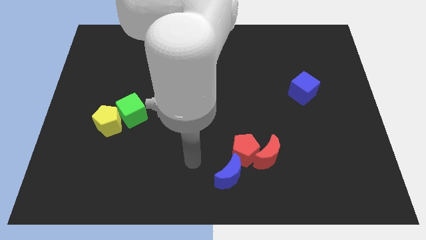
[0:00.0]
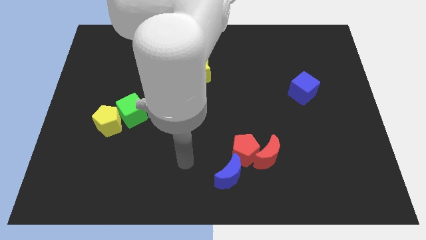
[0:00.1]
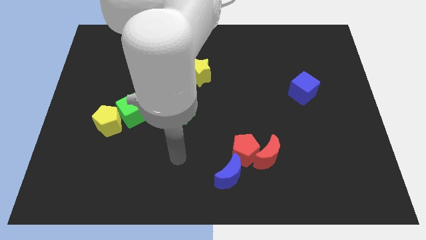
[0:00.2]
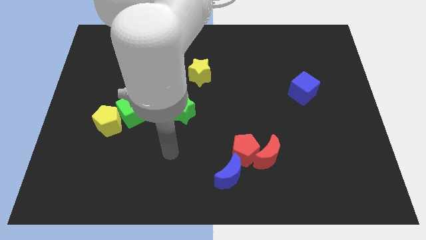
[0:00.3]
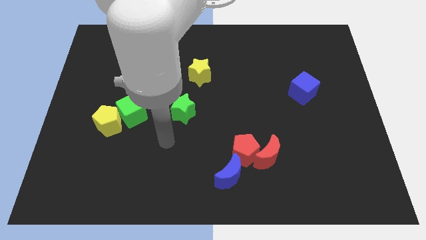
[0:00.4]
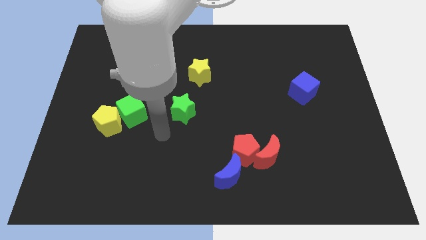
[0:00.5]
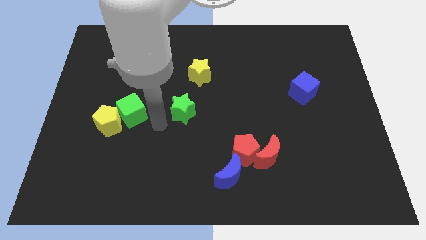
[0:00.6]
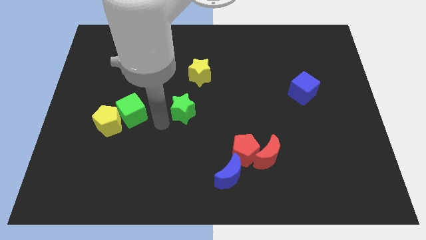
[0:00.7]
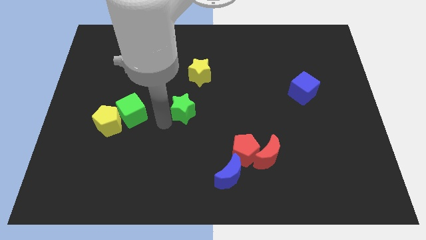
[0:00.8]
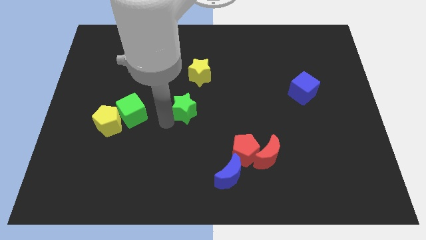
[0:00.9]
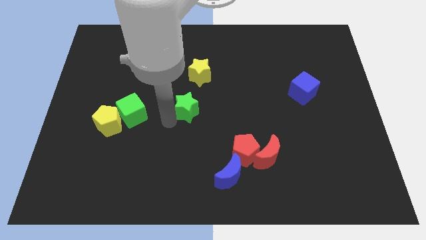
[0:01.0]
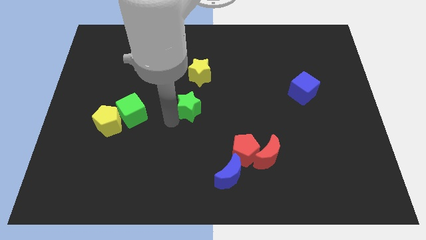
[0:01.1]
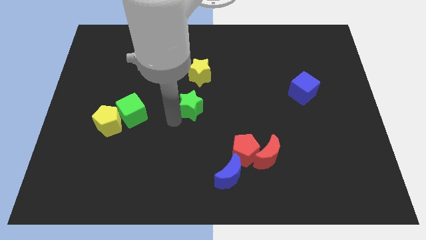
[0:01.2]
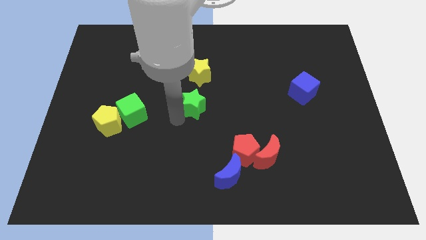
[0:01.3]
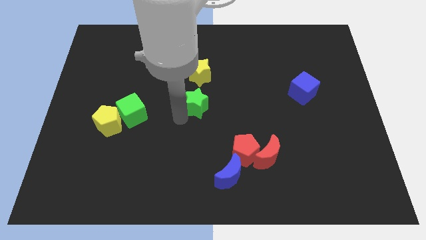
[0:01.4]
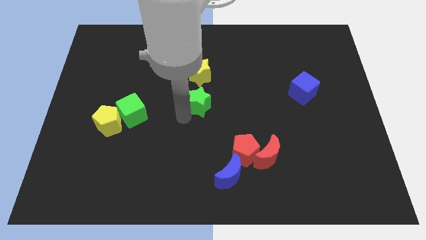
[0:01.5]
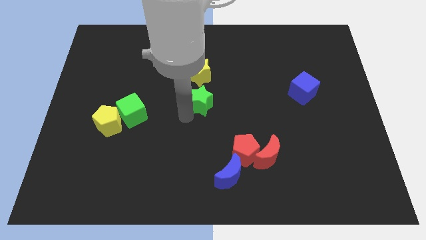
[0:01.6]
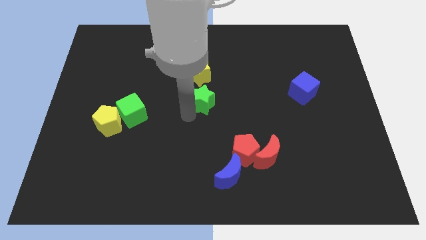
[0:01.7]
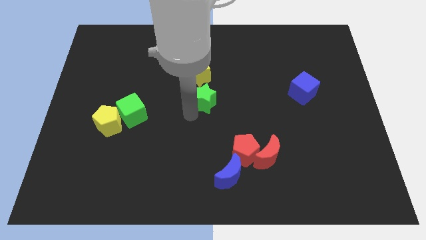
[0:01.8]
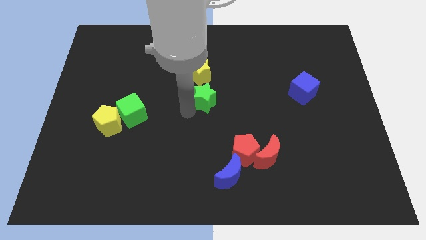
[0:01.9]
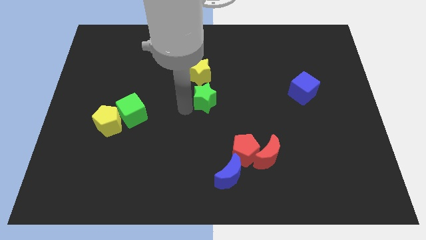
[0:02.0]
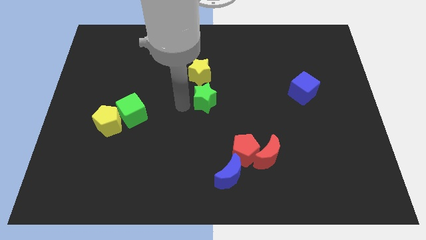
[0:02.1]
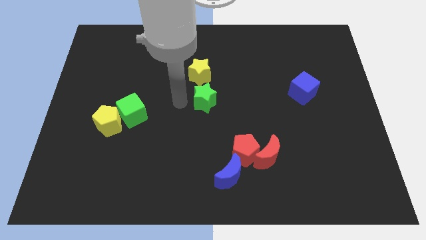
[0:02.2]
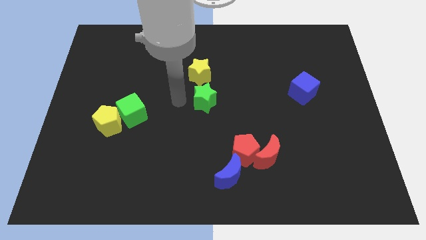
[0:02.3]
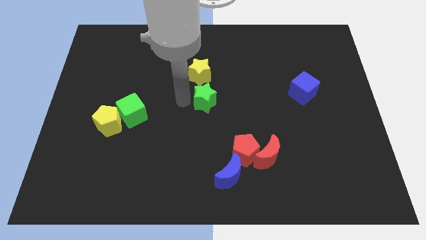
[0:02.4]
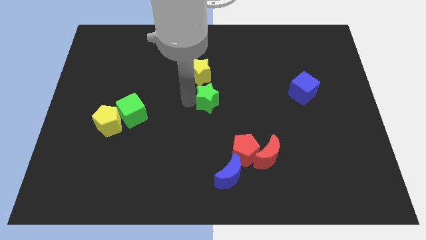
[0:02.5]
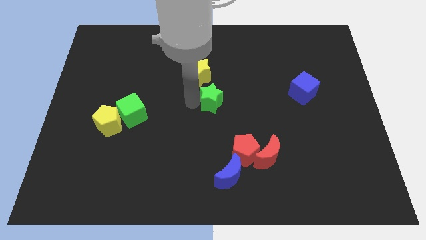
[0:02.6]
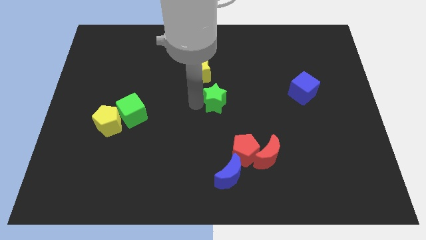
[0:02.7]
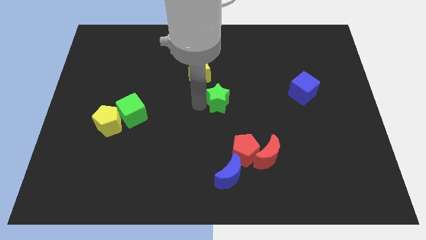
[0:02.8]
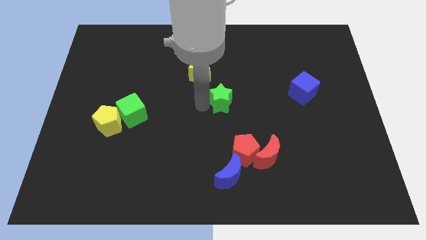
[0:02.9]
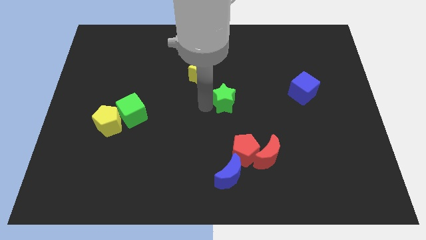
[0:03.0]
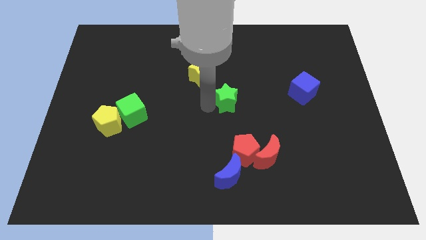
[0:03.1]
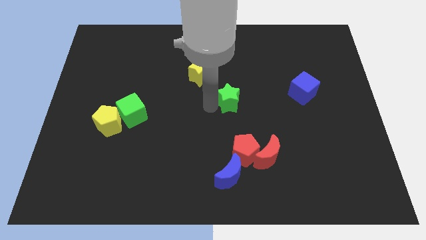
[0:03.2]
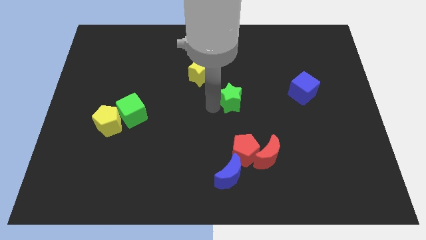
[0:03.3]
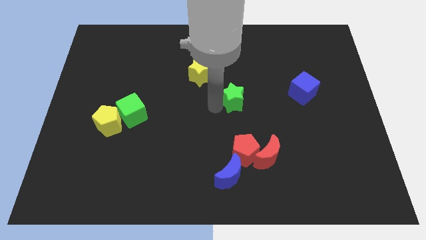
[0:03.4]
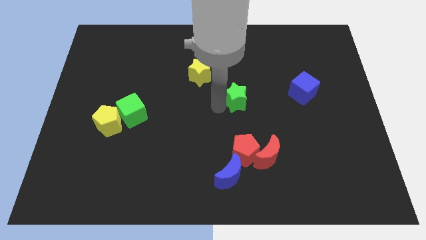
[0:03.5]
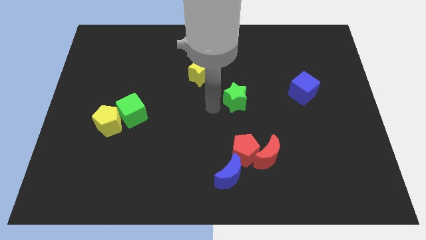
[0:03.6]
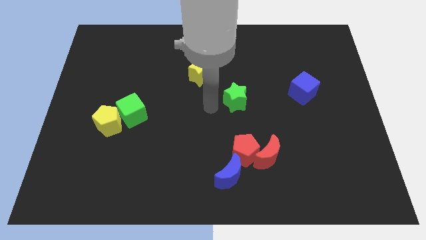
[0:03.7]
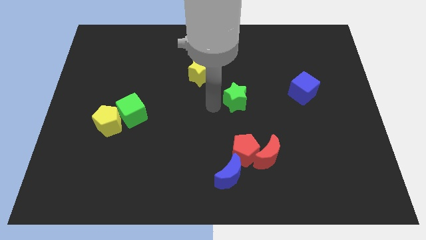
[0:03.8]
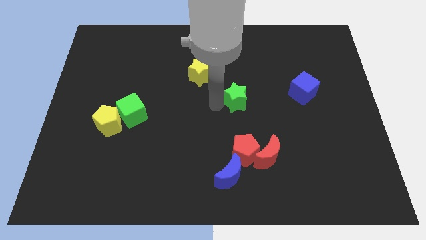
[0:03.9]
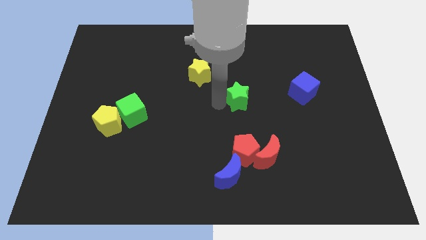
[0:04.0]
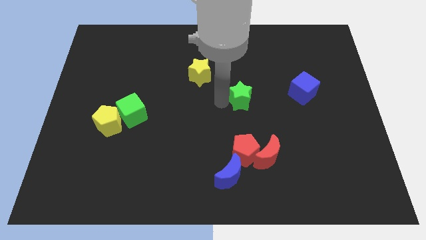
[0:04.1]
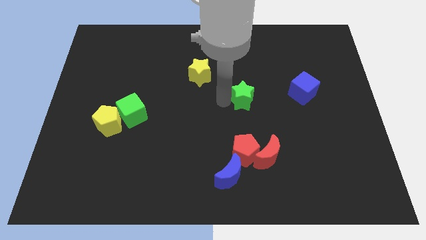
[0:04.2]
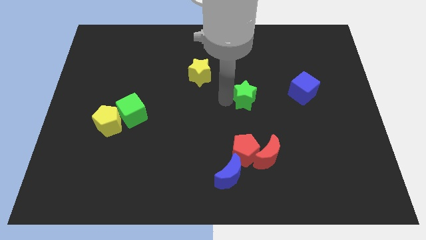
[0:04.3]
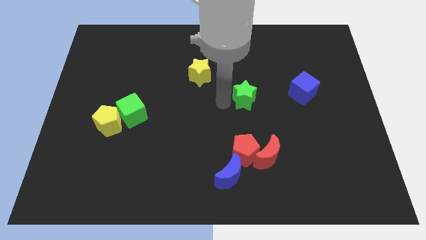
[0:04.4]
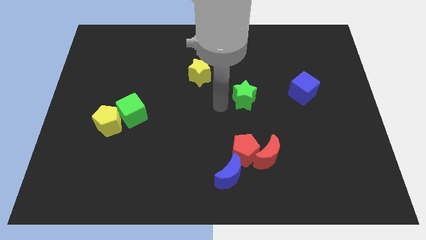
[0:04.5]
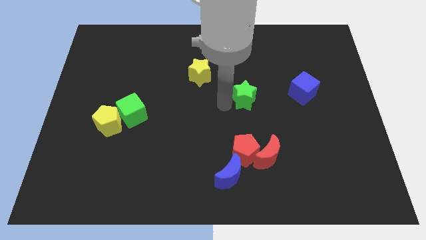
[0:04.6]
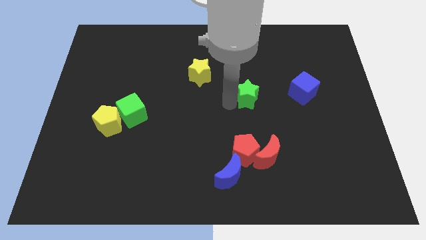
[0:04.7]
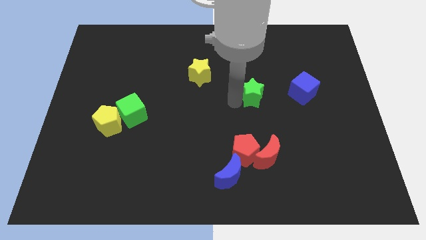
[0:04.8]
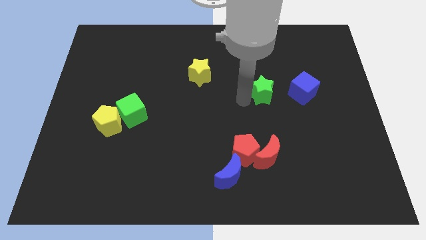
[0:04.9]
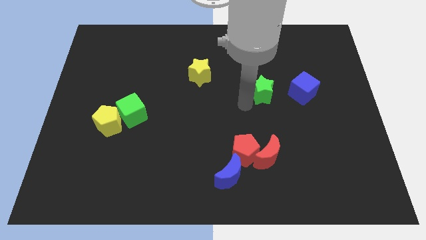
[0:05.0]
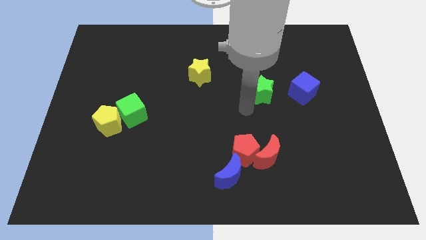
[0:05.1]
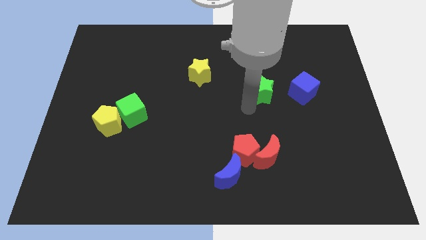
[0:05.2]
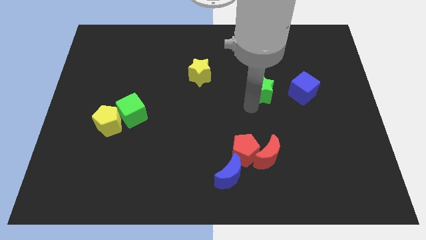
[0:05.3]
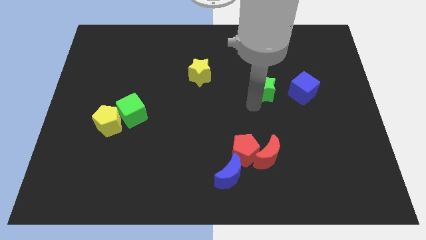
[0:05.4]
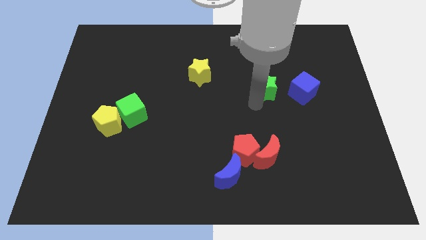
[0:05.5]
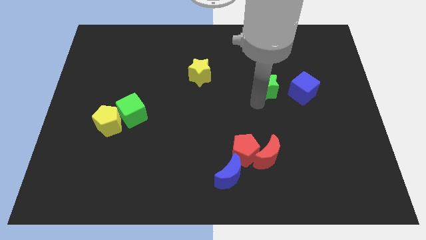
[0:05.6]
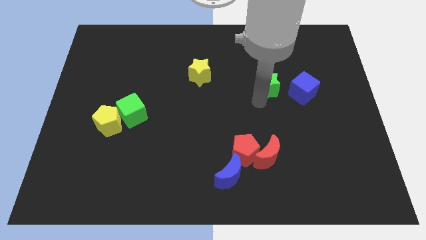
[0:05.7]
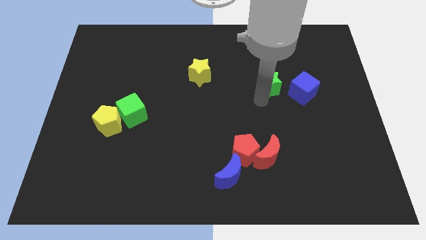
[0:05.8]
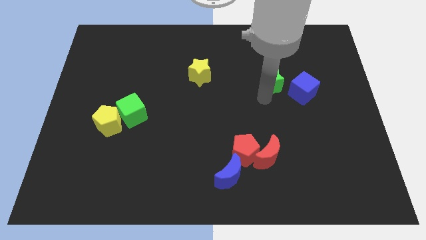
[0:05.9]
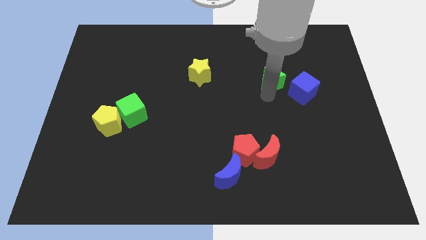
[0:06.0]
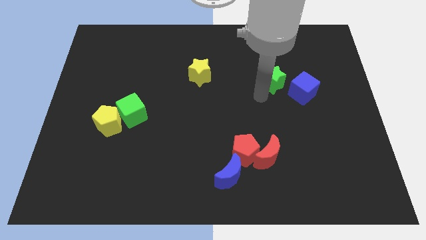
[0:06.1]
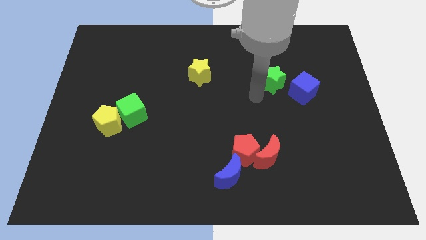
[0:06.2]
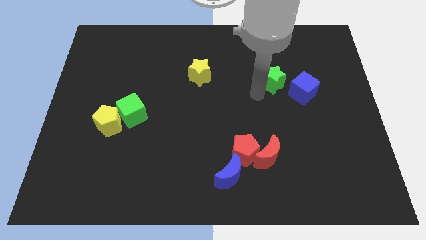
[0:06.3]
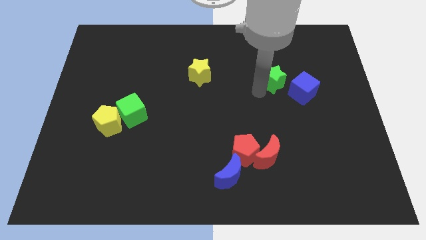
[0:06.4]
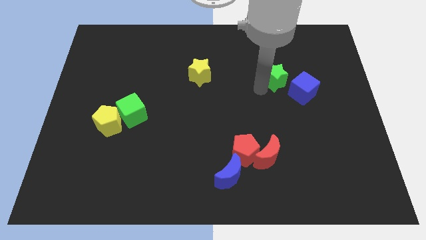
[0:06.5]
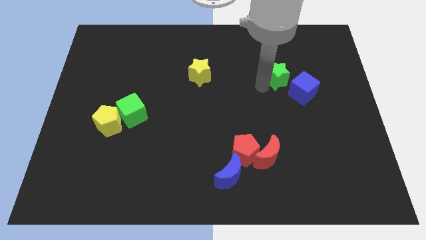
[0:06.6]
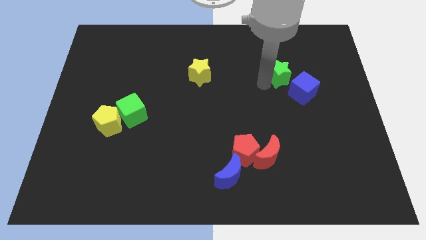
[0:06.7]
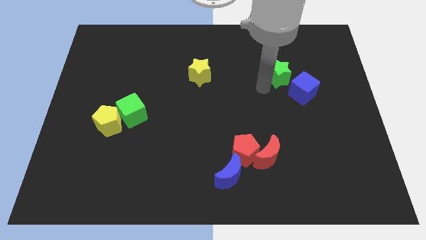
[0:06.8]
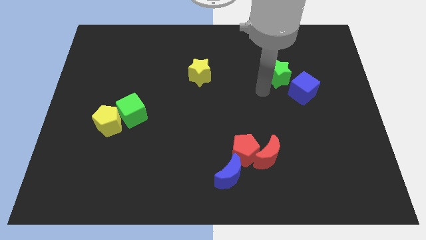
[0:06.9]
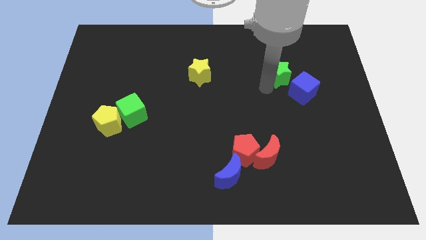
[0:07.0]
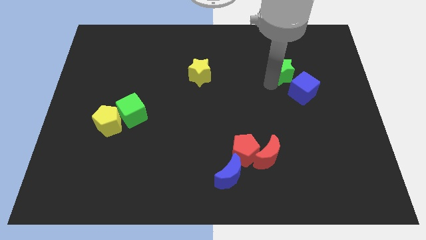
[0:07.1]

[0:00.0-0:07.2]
push the green star to the top of the blue cube

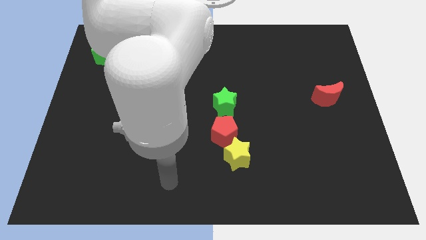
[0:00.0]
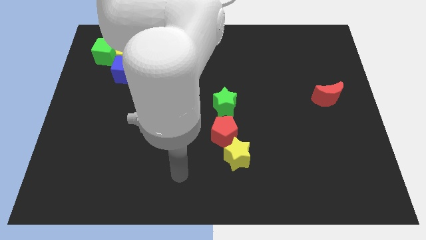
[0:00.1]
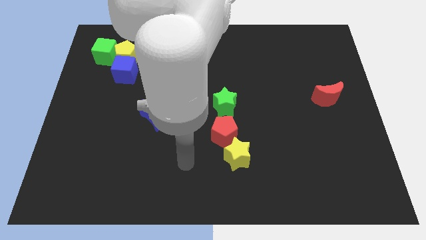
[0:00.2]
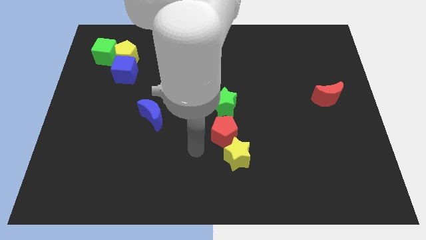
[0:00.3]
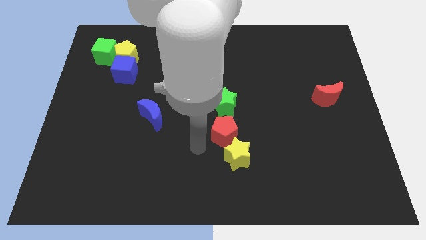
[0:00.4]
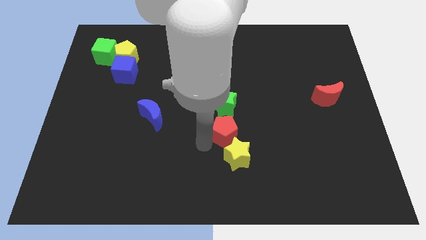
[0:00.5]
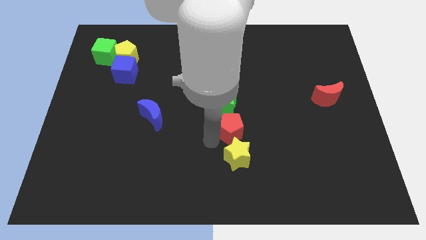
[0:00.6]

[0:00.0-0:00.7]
move the red pentagon diagonally down and to the right of the green star
